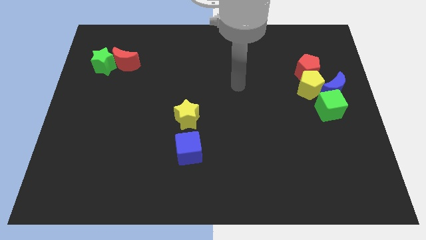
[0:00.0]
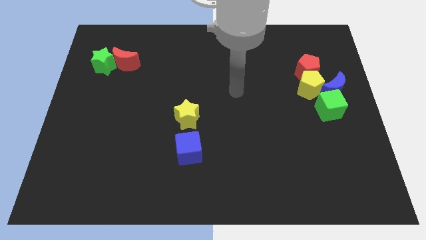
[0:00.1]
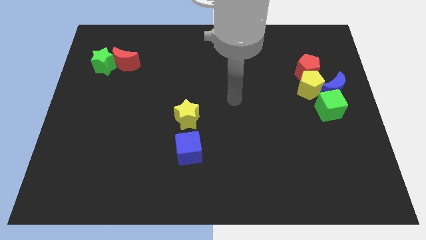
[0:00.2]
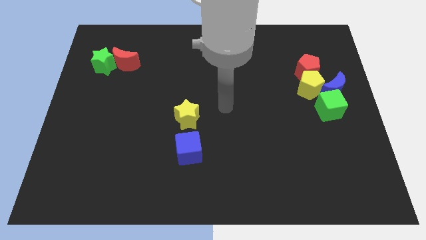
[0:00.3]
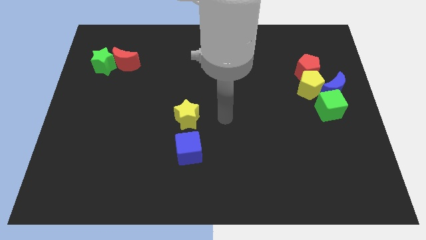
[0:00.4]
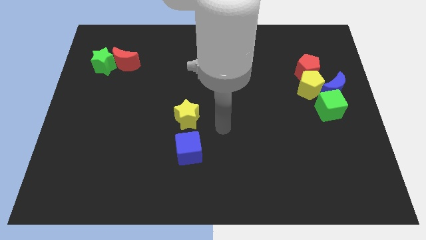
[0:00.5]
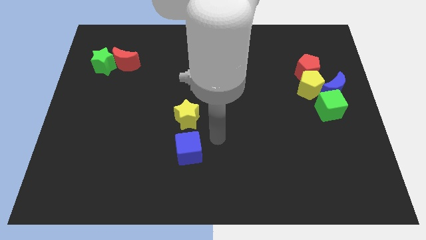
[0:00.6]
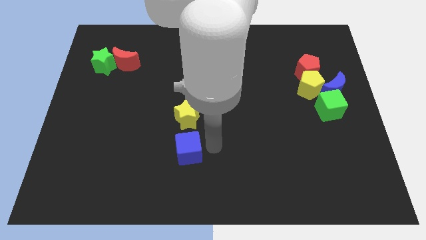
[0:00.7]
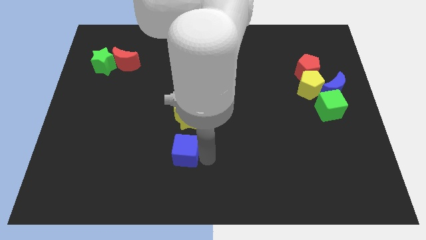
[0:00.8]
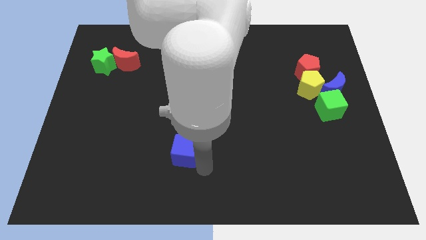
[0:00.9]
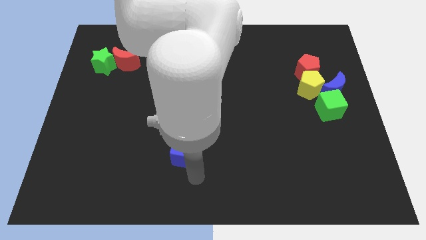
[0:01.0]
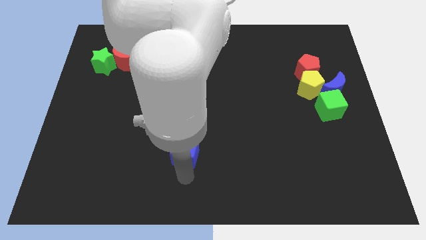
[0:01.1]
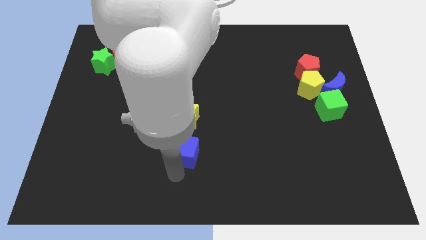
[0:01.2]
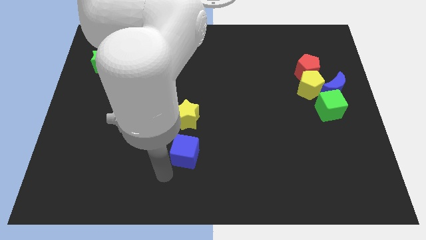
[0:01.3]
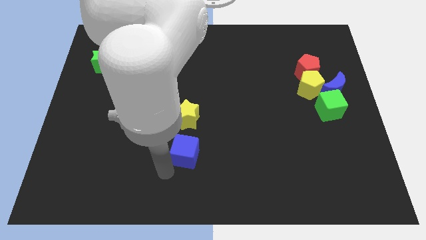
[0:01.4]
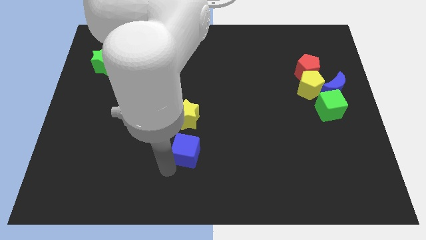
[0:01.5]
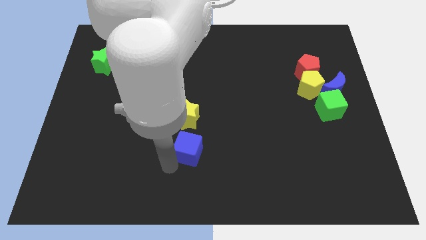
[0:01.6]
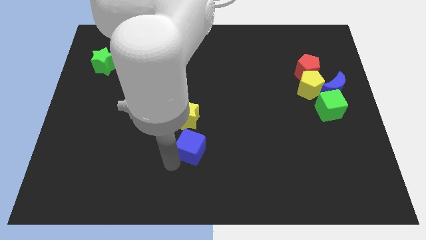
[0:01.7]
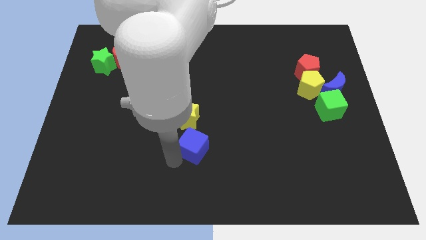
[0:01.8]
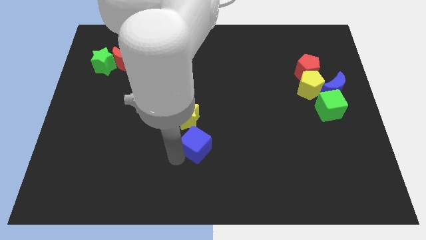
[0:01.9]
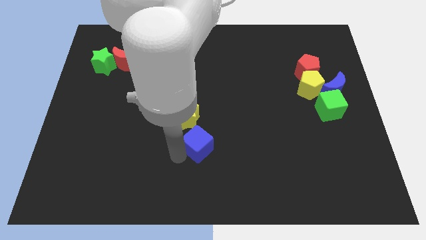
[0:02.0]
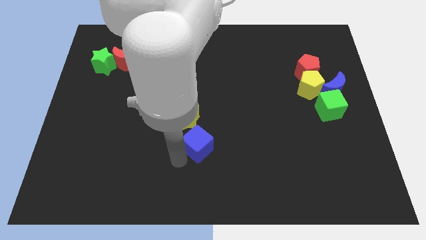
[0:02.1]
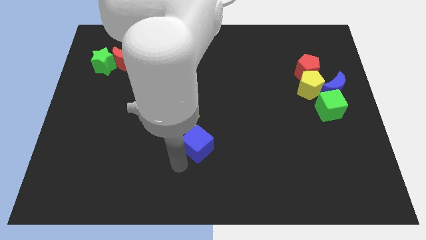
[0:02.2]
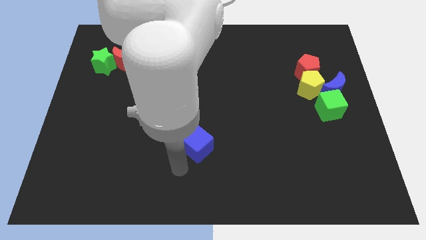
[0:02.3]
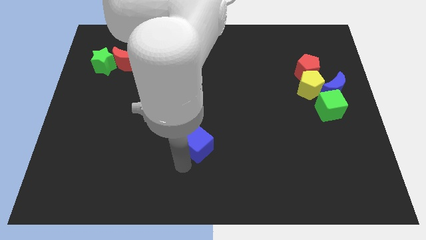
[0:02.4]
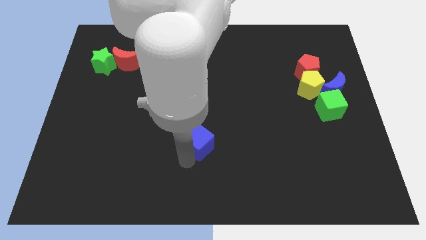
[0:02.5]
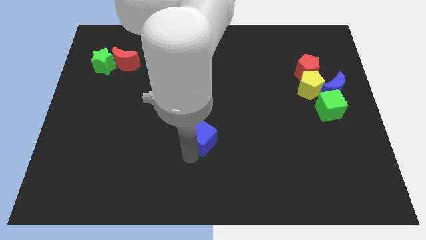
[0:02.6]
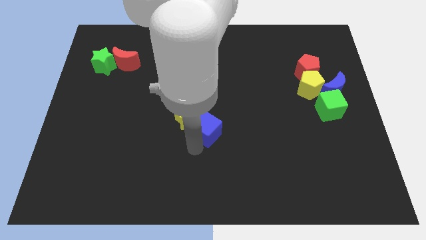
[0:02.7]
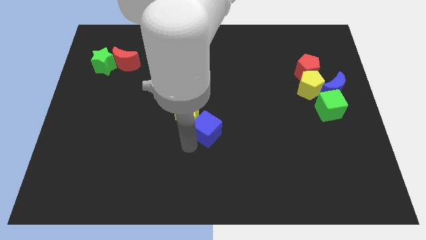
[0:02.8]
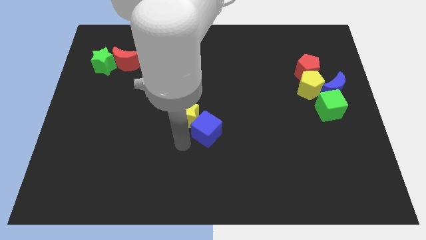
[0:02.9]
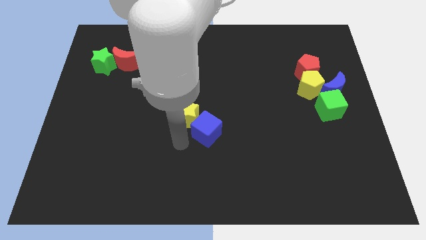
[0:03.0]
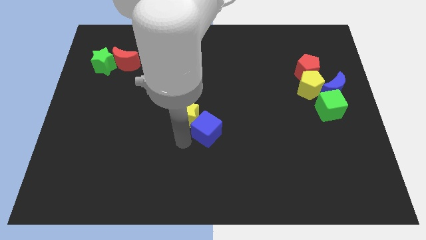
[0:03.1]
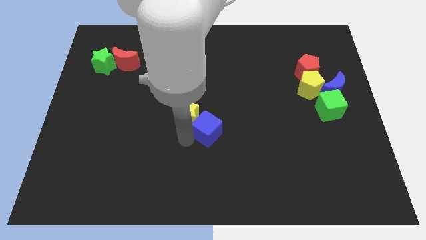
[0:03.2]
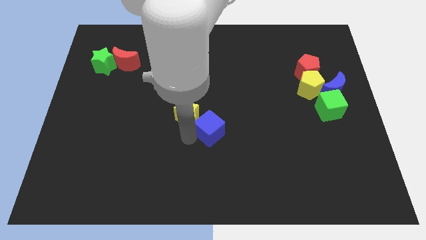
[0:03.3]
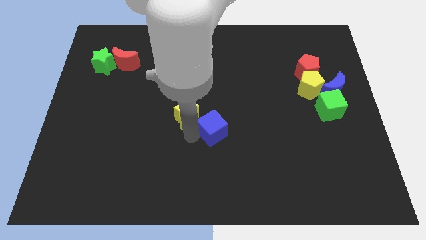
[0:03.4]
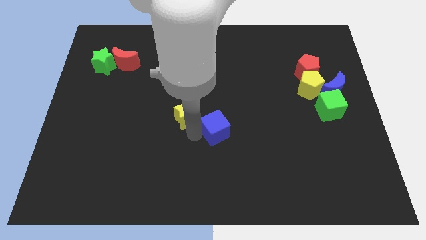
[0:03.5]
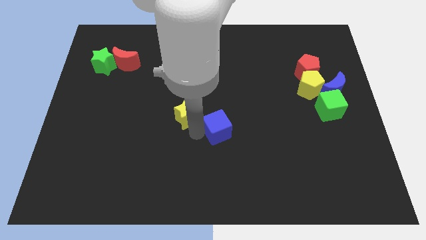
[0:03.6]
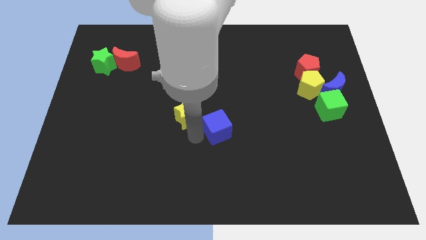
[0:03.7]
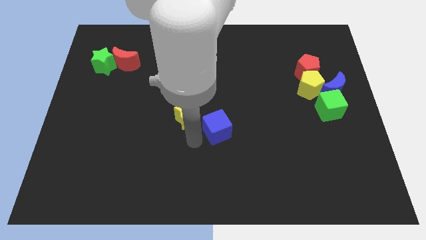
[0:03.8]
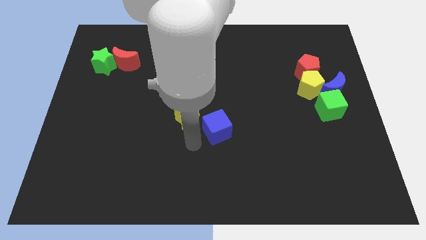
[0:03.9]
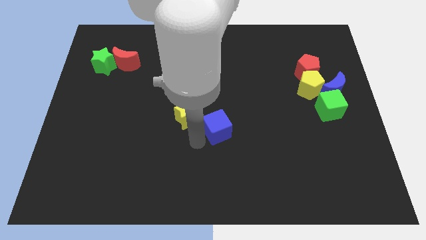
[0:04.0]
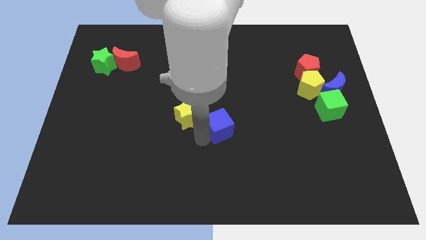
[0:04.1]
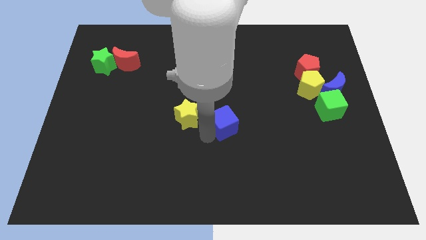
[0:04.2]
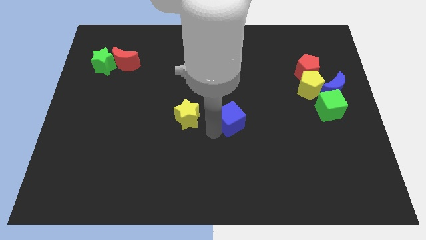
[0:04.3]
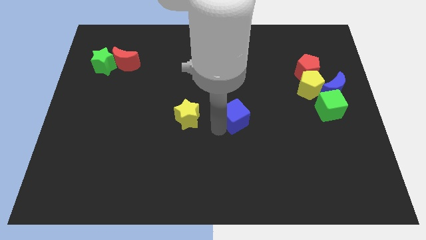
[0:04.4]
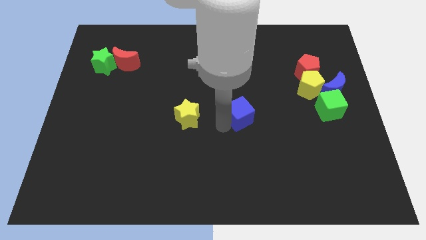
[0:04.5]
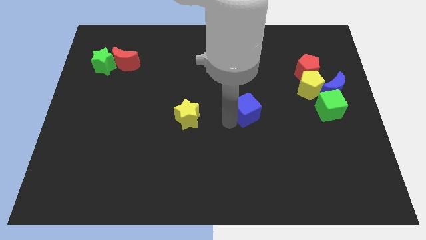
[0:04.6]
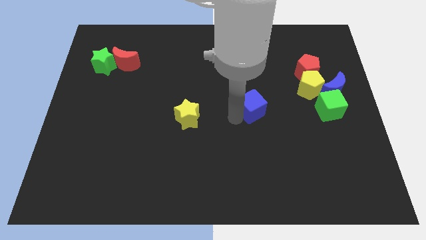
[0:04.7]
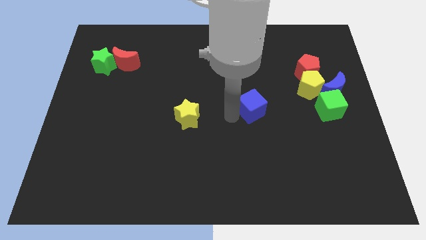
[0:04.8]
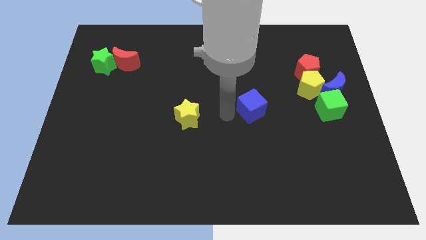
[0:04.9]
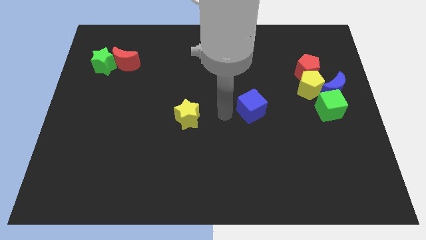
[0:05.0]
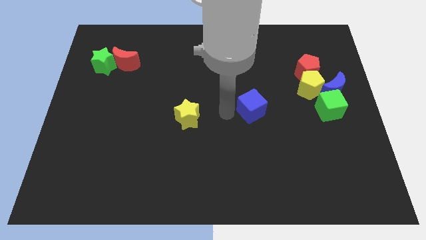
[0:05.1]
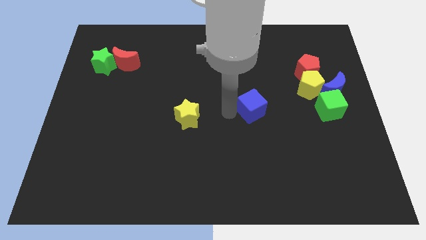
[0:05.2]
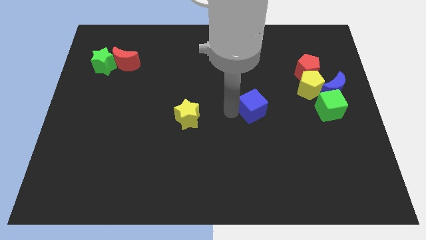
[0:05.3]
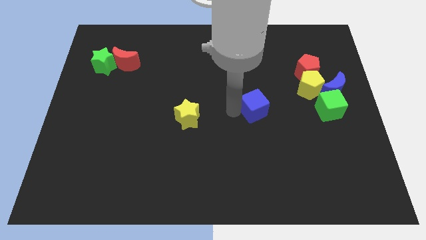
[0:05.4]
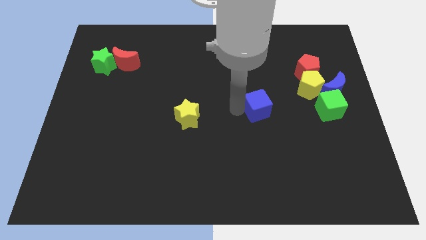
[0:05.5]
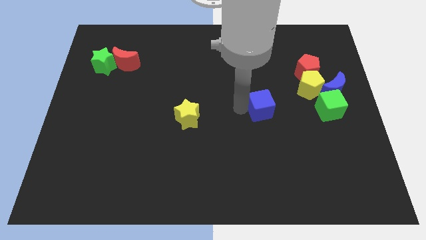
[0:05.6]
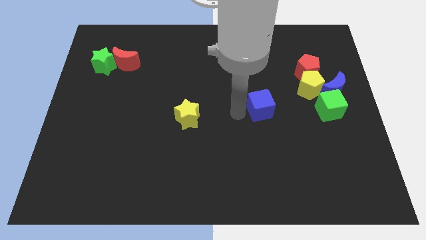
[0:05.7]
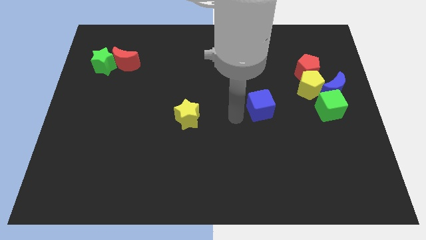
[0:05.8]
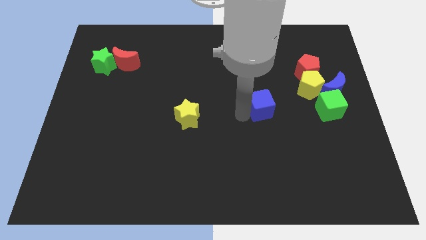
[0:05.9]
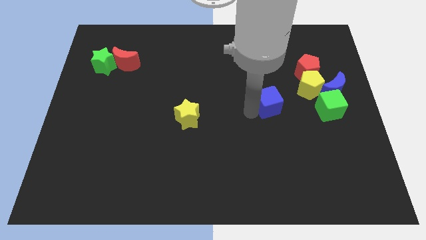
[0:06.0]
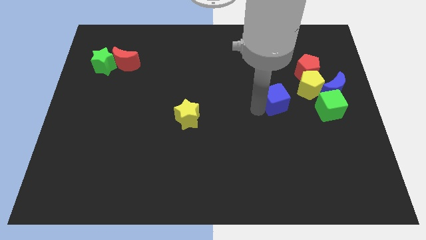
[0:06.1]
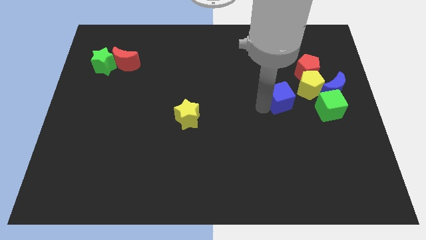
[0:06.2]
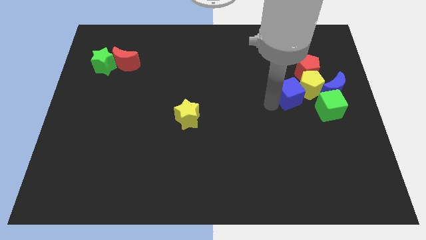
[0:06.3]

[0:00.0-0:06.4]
move the blue cube close to the yellow pentagon

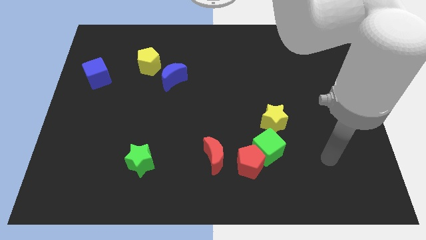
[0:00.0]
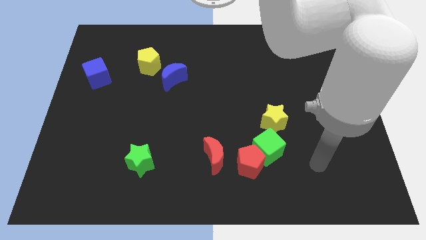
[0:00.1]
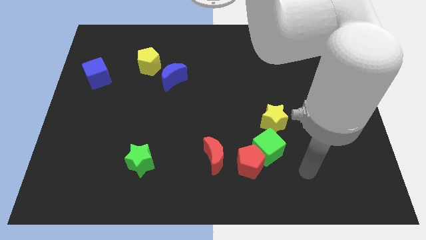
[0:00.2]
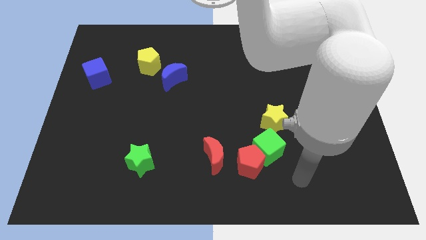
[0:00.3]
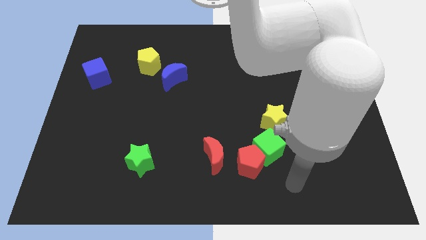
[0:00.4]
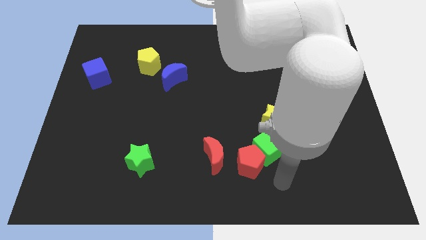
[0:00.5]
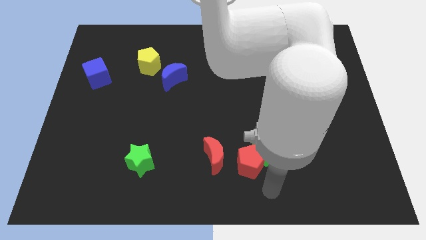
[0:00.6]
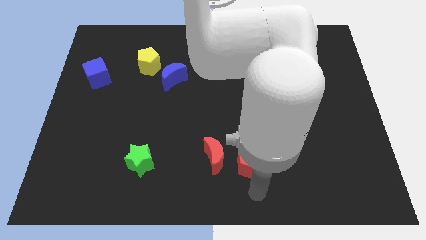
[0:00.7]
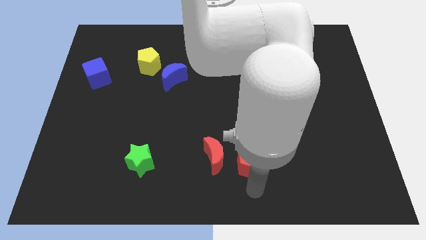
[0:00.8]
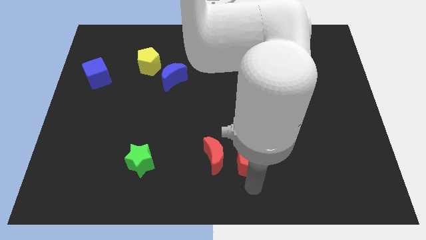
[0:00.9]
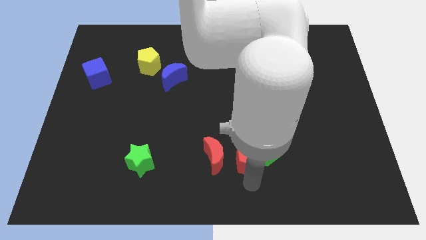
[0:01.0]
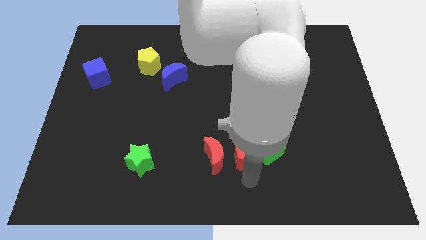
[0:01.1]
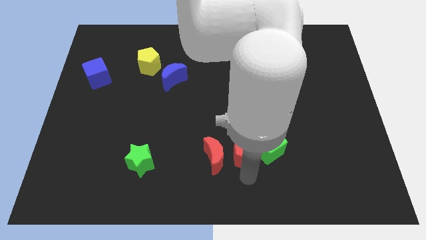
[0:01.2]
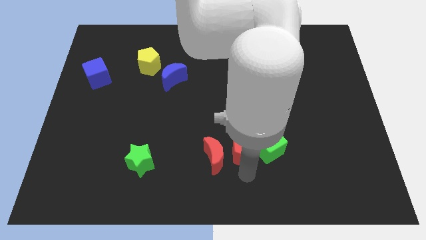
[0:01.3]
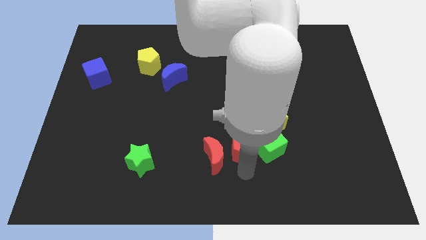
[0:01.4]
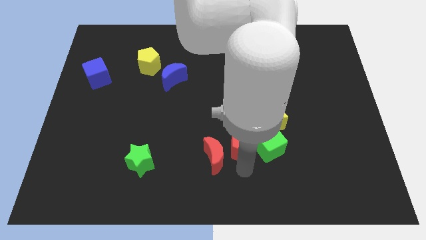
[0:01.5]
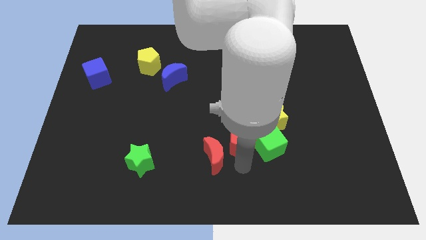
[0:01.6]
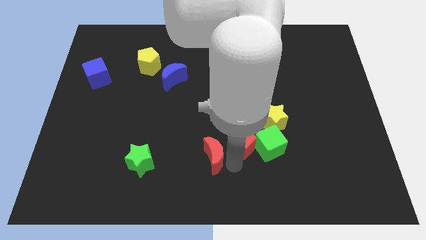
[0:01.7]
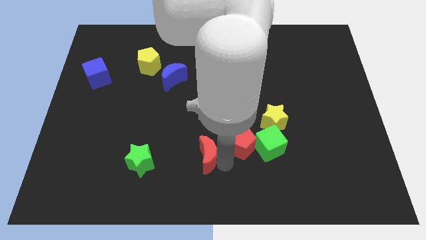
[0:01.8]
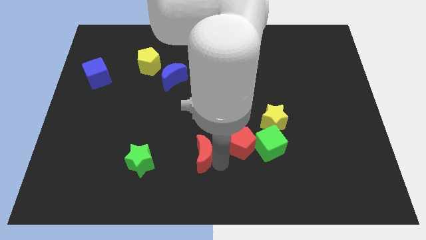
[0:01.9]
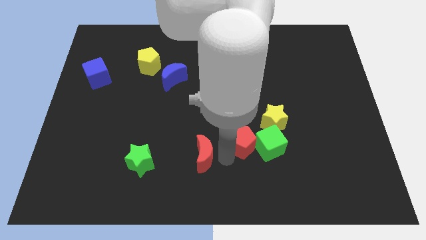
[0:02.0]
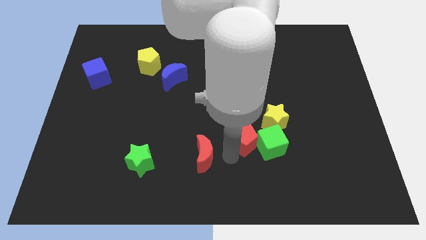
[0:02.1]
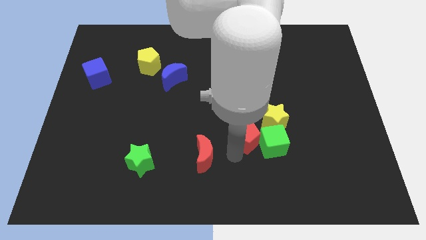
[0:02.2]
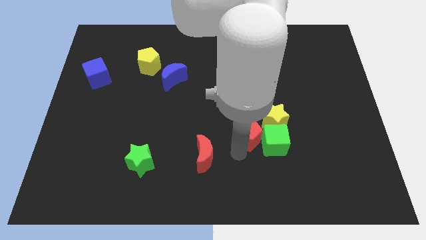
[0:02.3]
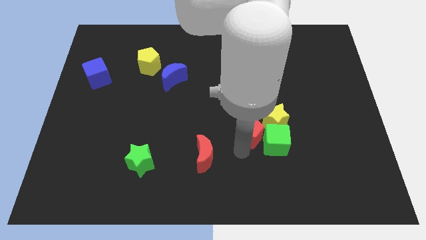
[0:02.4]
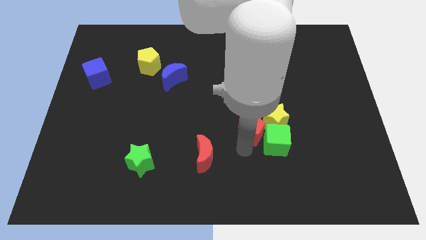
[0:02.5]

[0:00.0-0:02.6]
slide the red pentagon close to the yellow star
